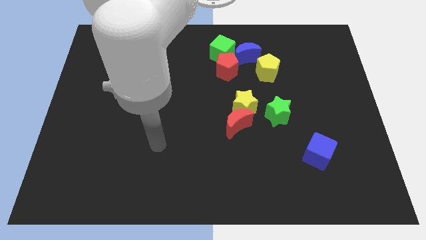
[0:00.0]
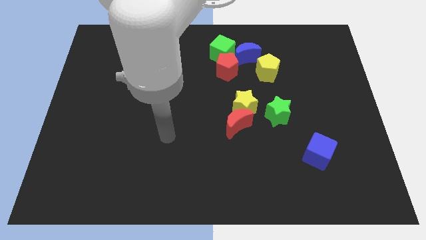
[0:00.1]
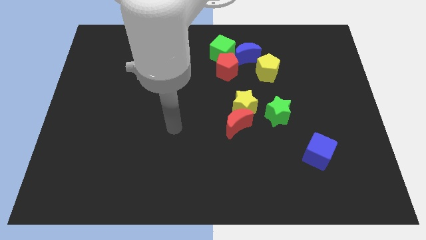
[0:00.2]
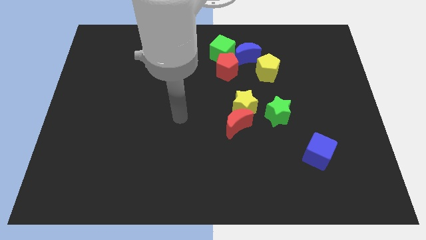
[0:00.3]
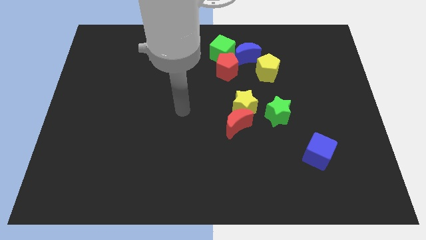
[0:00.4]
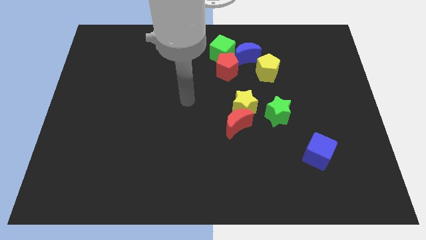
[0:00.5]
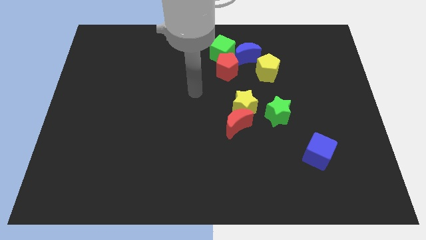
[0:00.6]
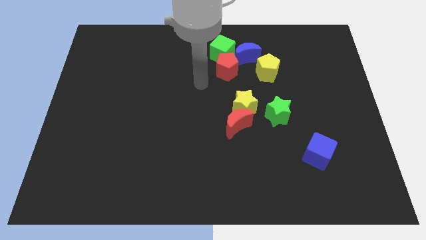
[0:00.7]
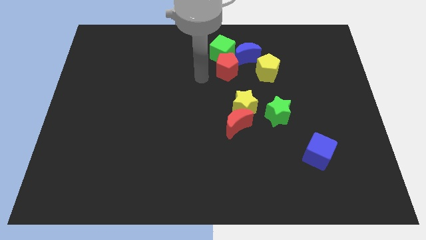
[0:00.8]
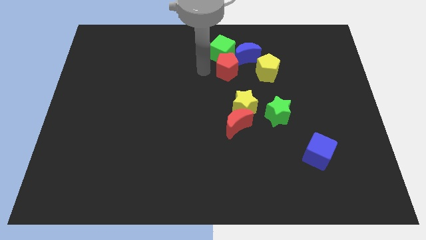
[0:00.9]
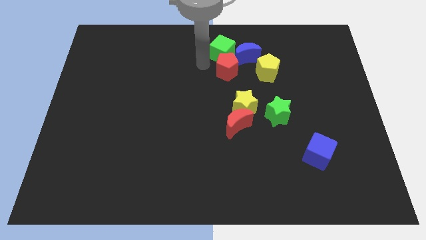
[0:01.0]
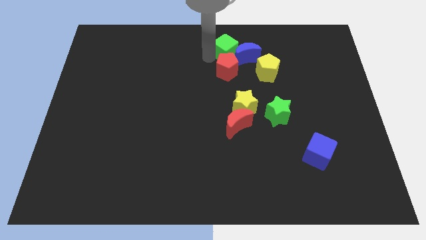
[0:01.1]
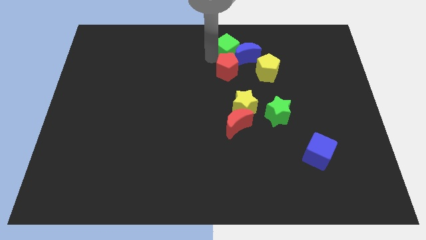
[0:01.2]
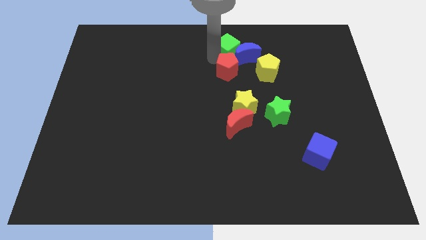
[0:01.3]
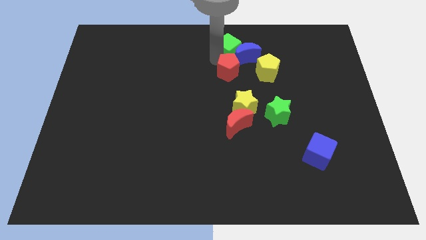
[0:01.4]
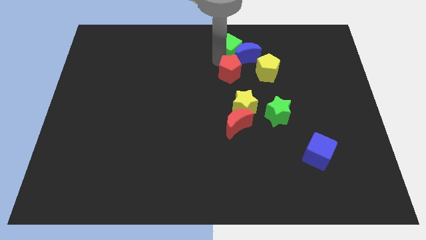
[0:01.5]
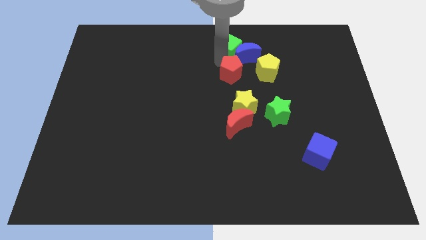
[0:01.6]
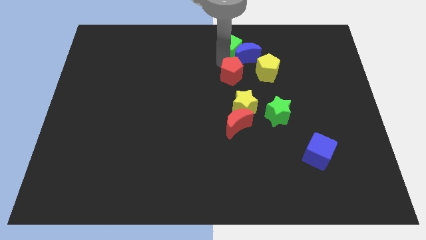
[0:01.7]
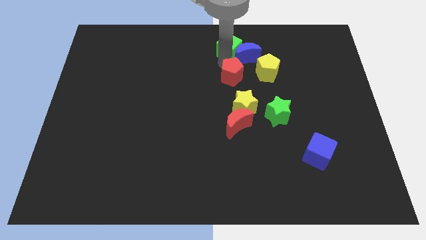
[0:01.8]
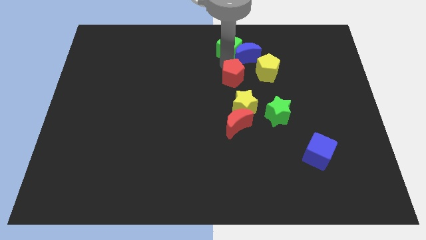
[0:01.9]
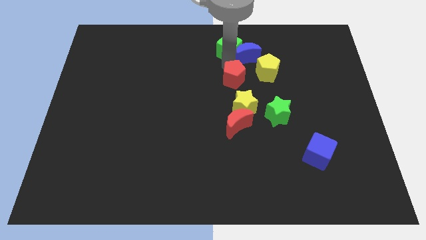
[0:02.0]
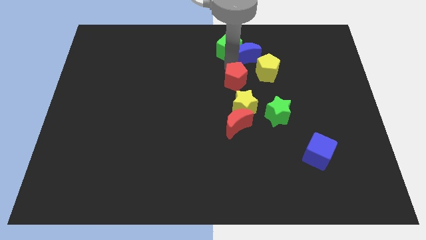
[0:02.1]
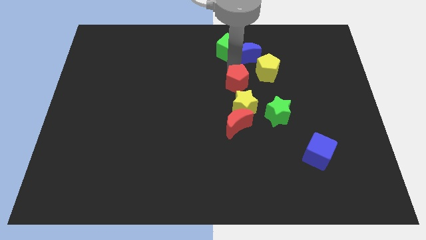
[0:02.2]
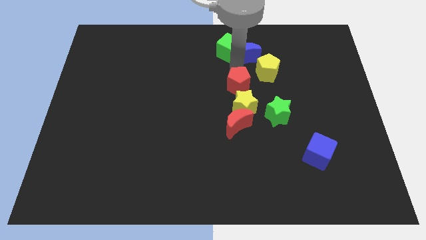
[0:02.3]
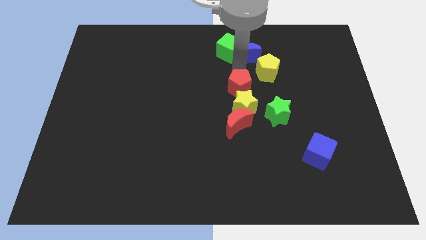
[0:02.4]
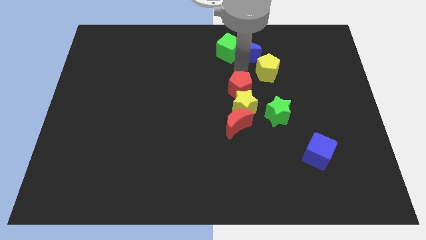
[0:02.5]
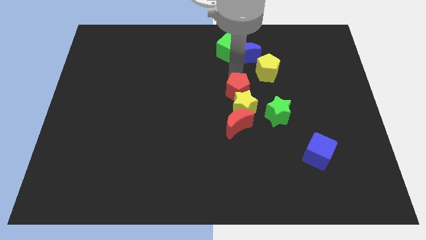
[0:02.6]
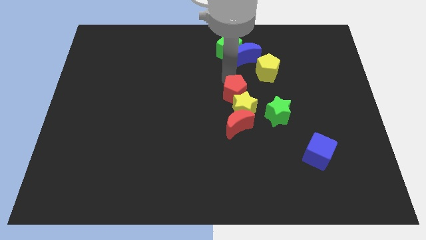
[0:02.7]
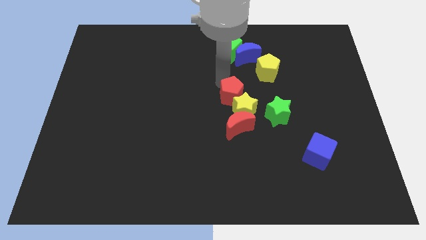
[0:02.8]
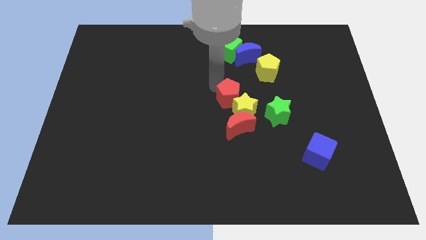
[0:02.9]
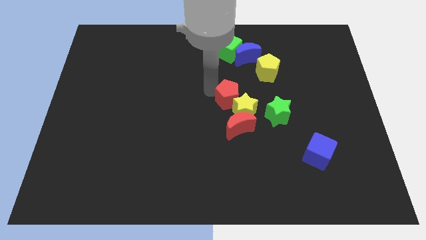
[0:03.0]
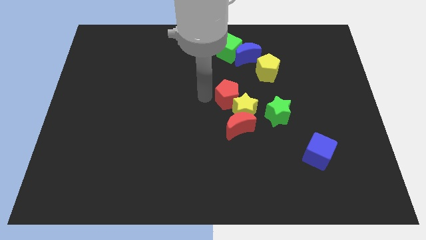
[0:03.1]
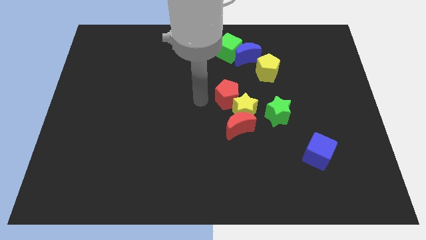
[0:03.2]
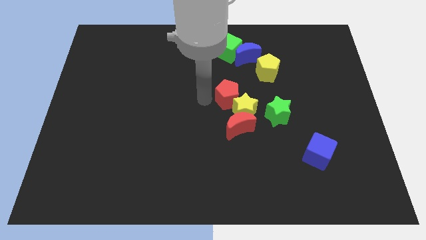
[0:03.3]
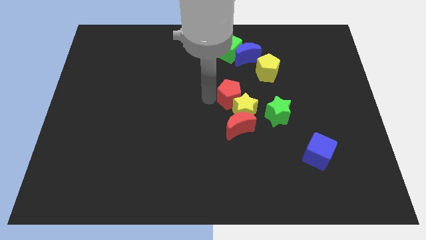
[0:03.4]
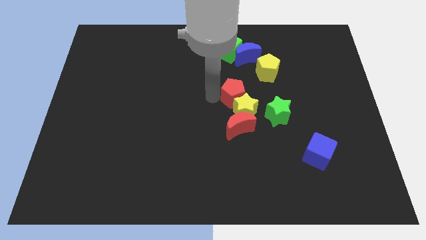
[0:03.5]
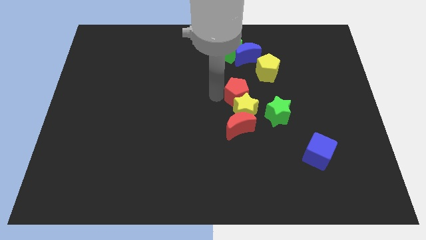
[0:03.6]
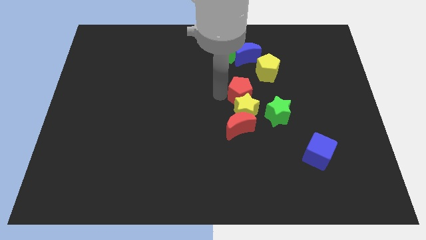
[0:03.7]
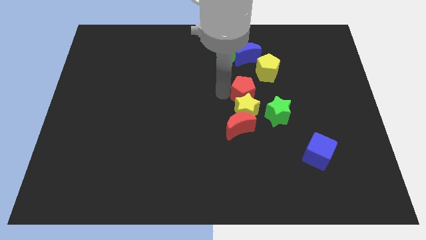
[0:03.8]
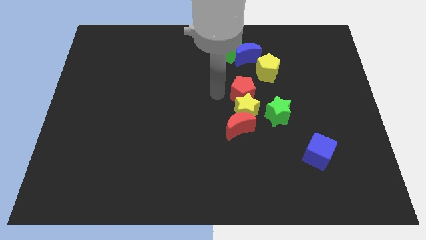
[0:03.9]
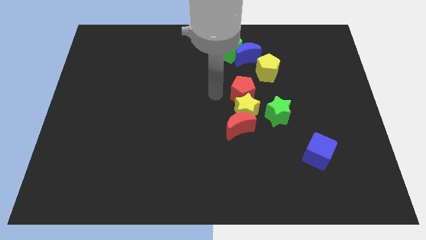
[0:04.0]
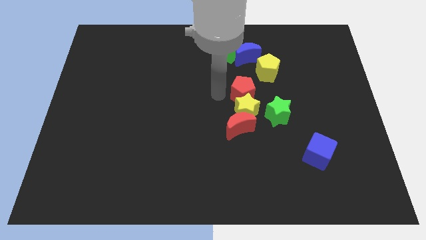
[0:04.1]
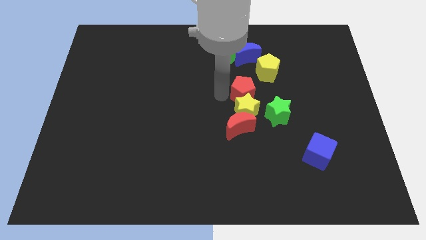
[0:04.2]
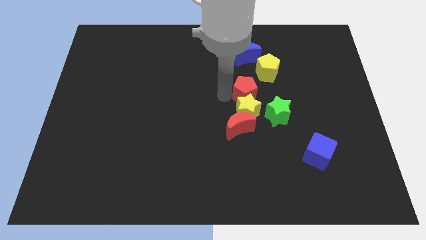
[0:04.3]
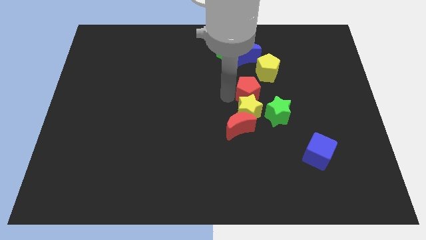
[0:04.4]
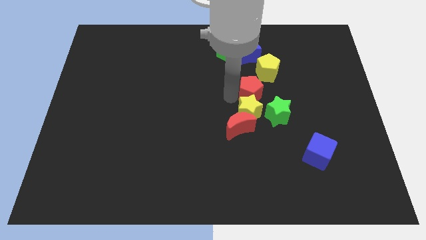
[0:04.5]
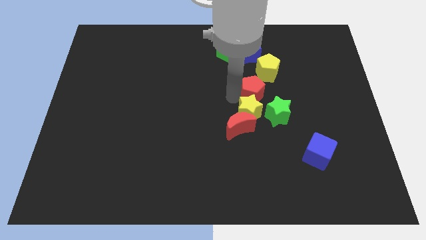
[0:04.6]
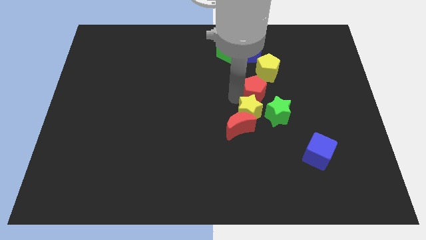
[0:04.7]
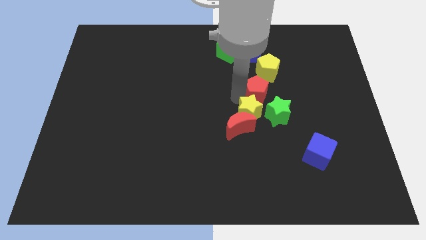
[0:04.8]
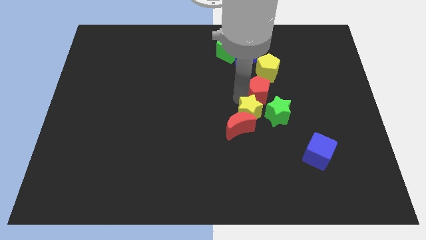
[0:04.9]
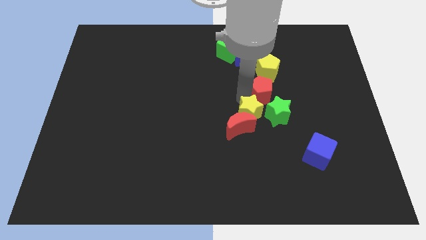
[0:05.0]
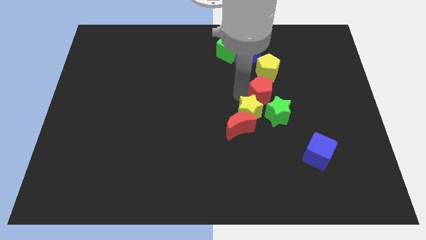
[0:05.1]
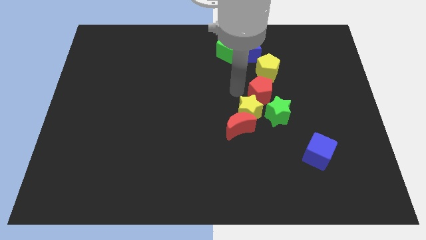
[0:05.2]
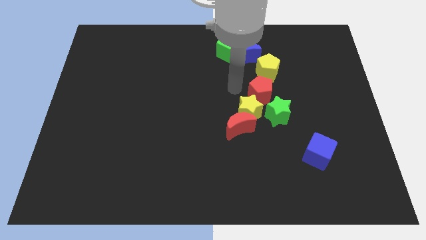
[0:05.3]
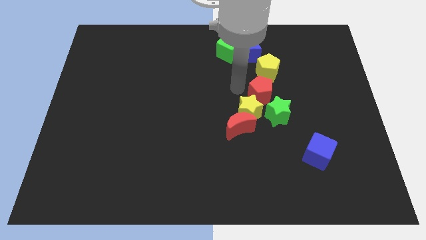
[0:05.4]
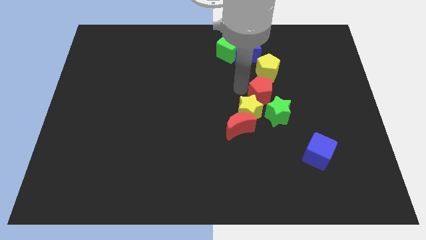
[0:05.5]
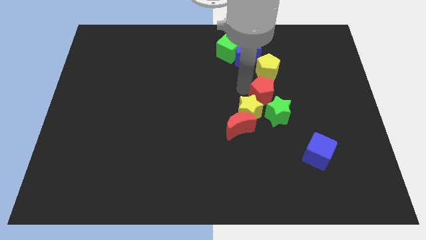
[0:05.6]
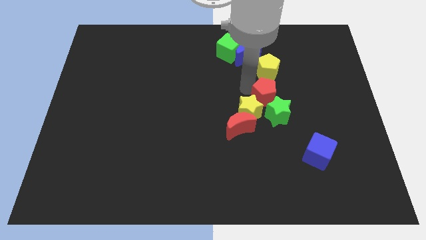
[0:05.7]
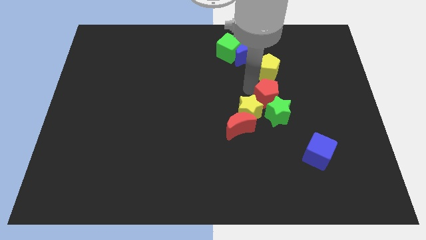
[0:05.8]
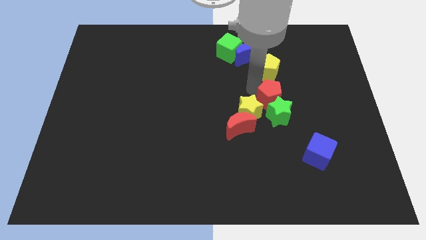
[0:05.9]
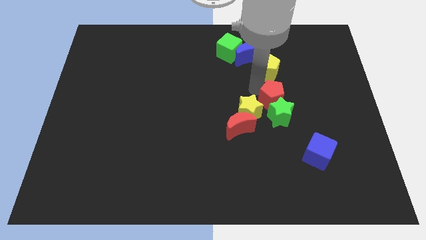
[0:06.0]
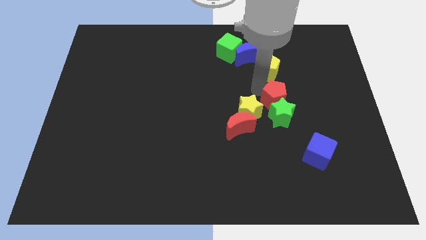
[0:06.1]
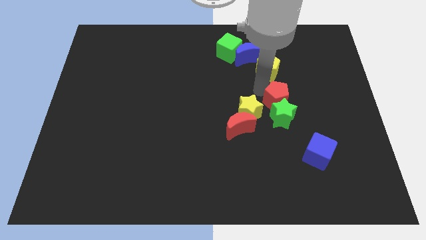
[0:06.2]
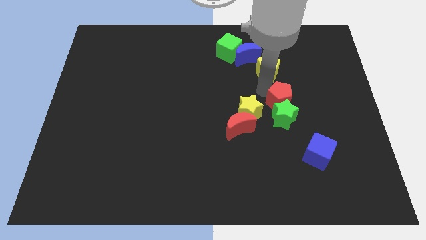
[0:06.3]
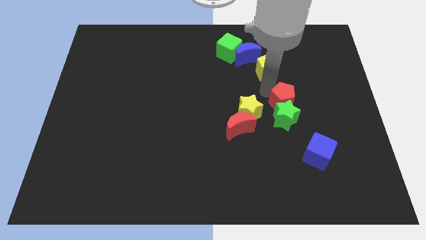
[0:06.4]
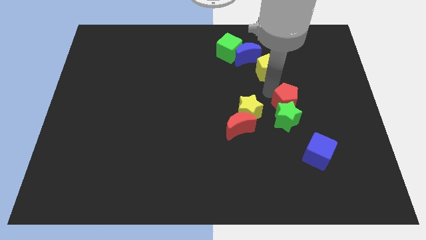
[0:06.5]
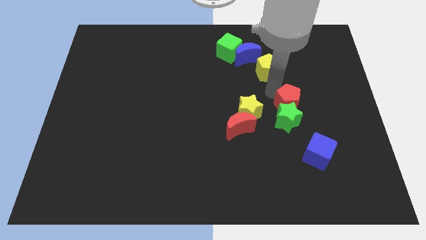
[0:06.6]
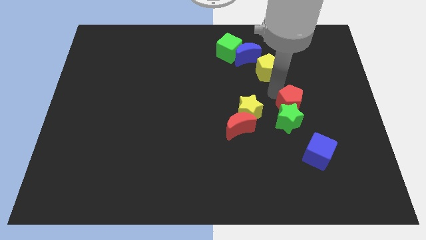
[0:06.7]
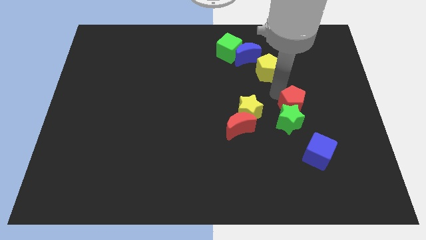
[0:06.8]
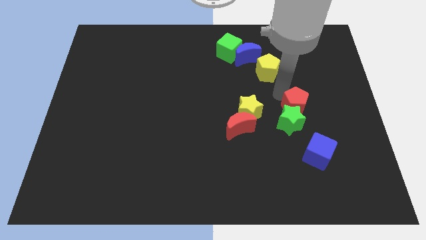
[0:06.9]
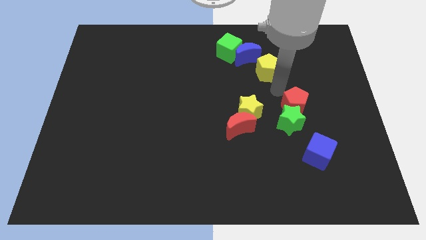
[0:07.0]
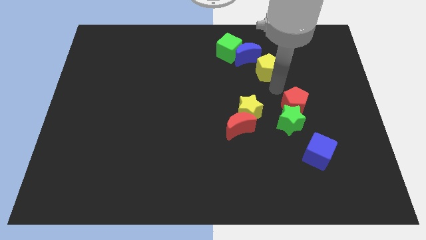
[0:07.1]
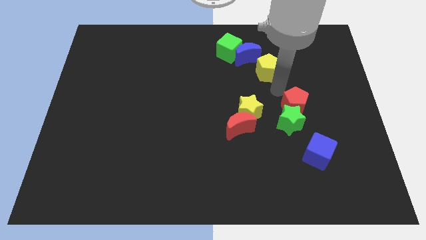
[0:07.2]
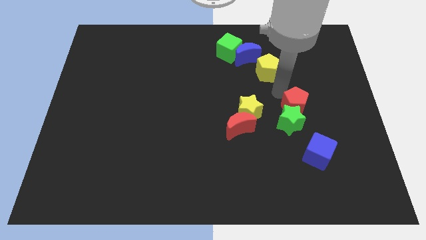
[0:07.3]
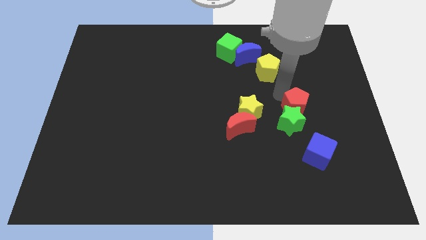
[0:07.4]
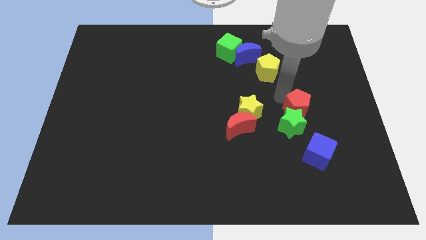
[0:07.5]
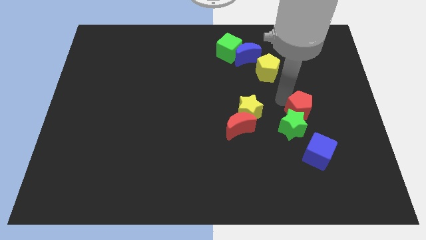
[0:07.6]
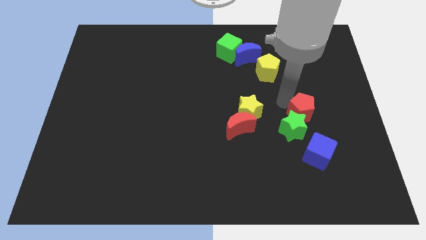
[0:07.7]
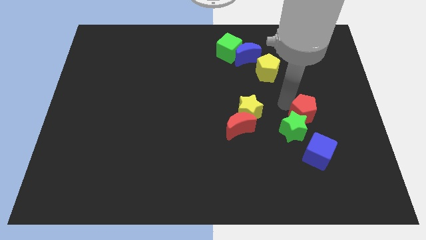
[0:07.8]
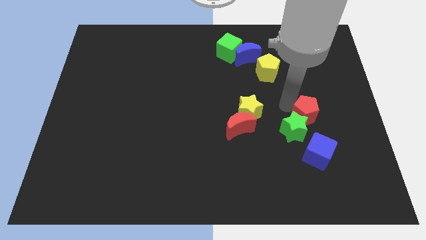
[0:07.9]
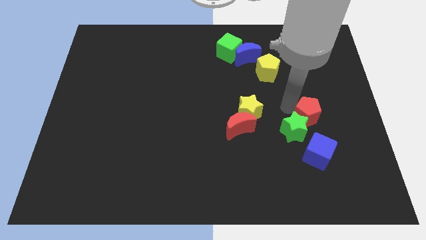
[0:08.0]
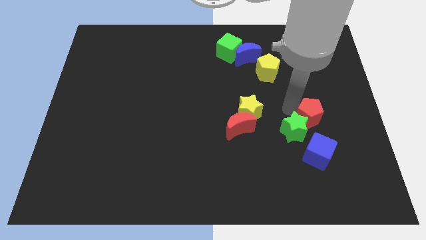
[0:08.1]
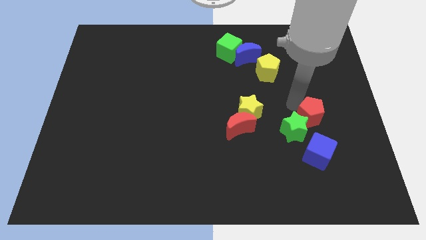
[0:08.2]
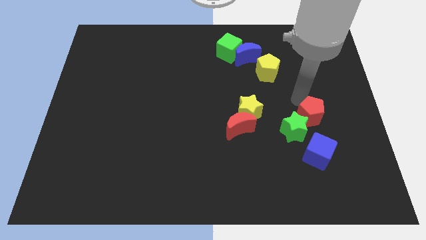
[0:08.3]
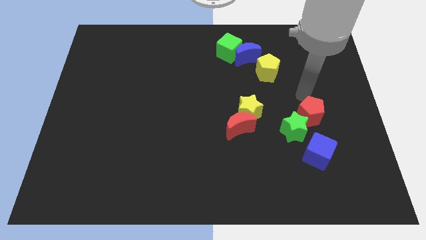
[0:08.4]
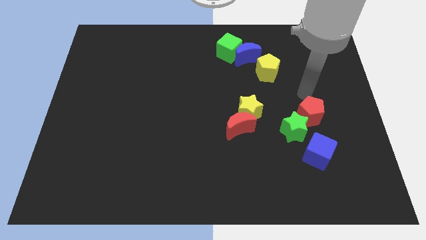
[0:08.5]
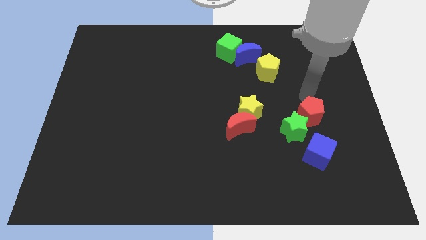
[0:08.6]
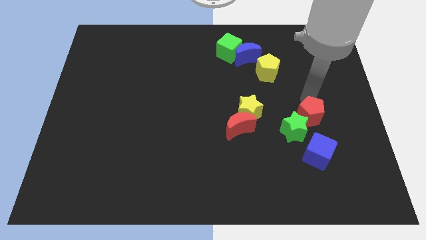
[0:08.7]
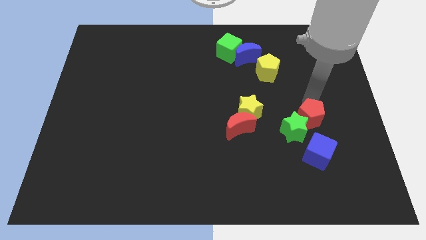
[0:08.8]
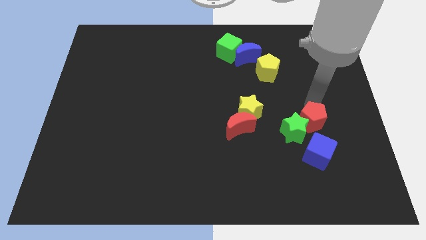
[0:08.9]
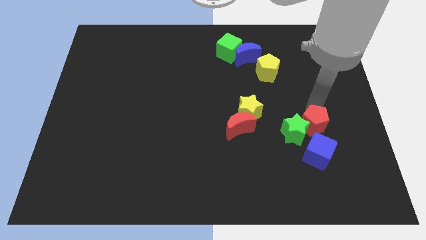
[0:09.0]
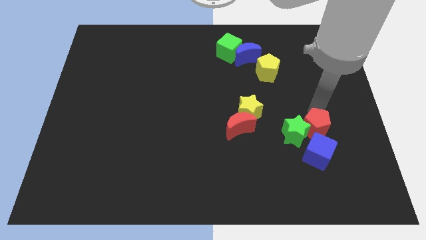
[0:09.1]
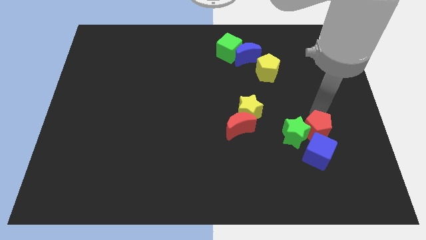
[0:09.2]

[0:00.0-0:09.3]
push the red pentagon to the blue cube
